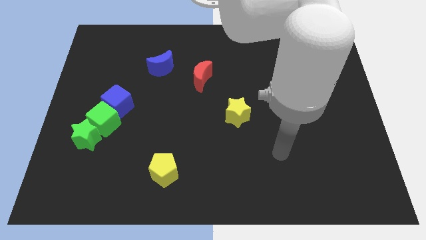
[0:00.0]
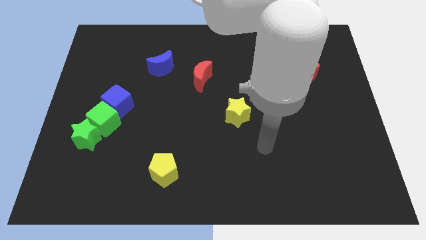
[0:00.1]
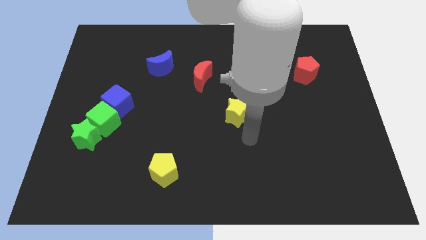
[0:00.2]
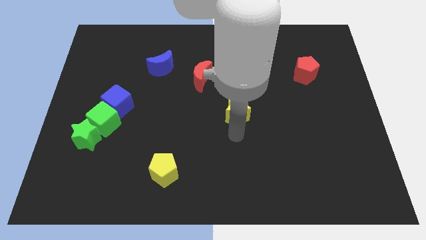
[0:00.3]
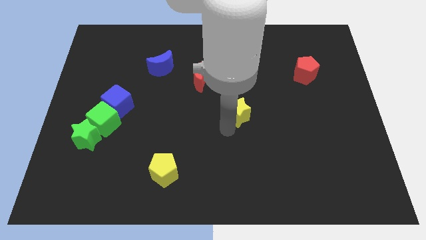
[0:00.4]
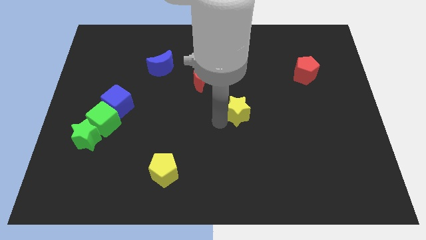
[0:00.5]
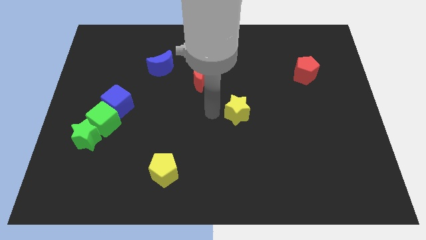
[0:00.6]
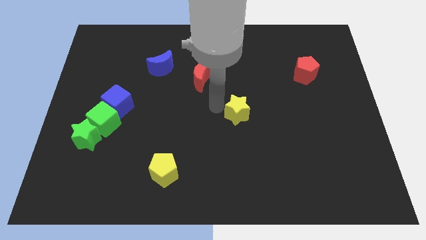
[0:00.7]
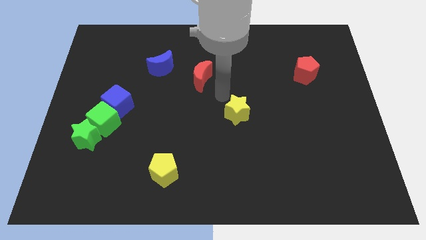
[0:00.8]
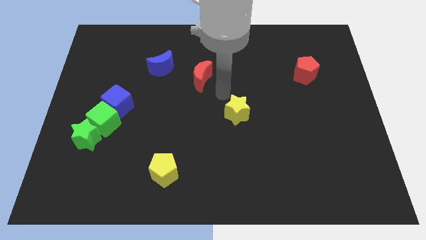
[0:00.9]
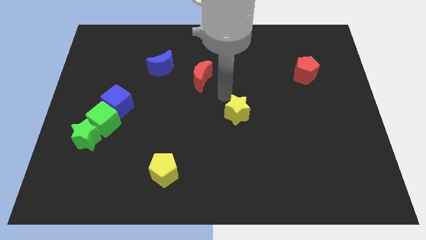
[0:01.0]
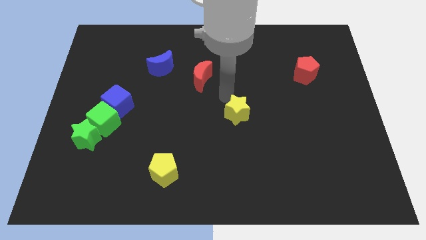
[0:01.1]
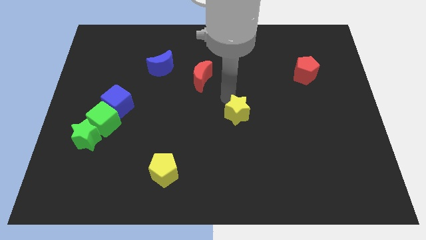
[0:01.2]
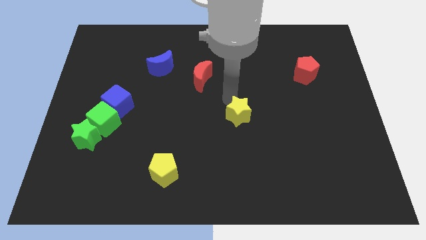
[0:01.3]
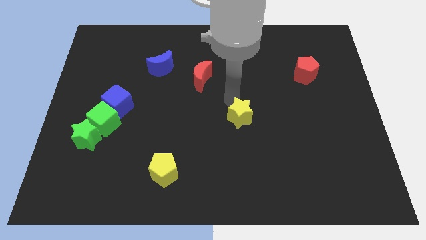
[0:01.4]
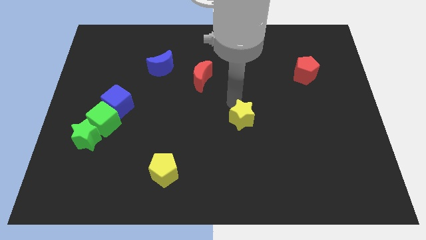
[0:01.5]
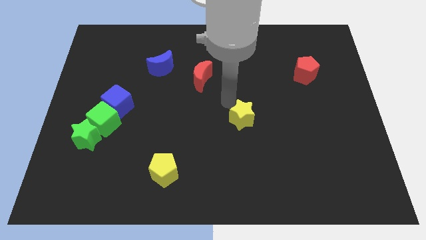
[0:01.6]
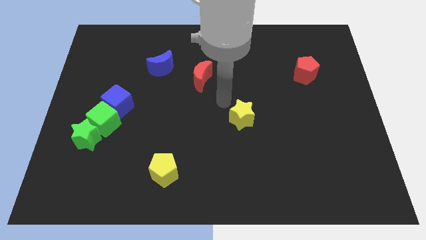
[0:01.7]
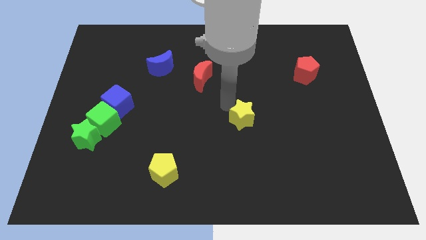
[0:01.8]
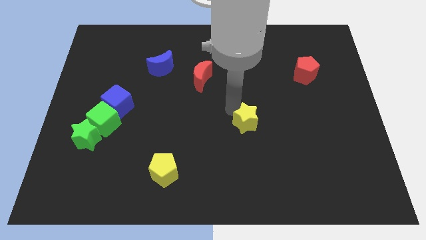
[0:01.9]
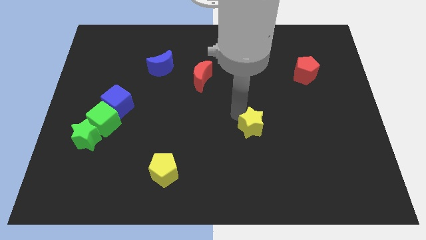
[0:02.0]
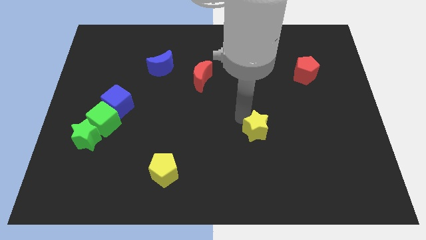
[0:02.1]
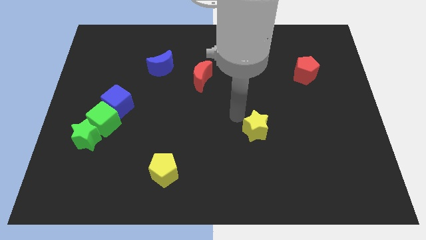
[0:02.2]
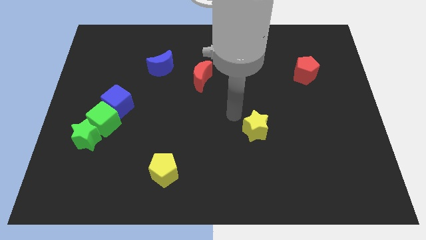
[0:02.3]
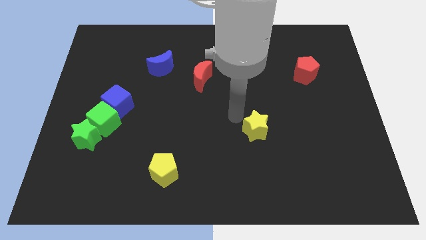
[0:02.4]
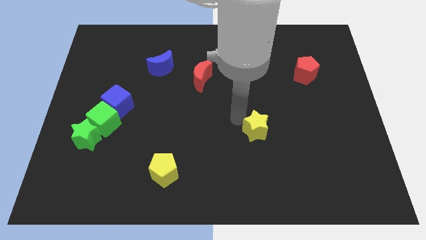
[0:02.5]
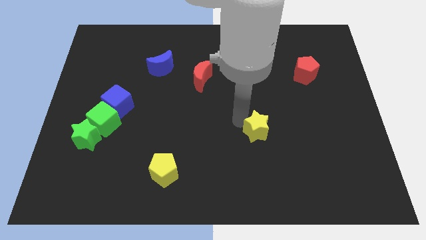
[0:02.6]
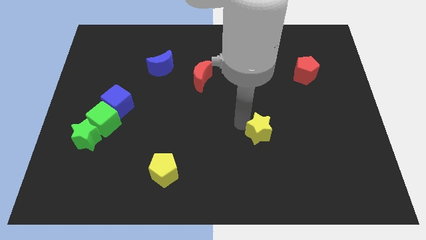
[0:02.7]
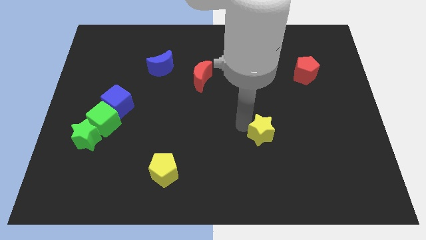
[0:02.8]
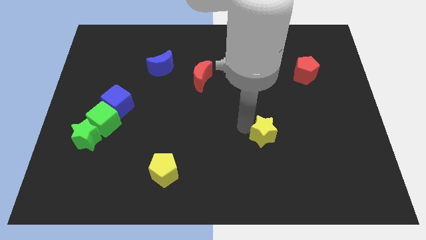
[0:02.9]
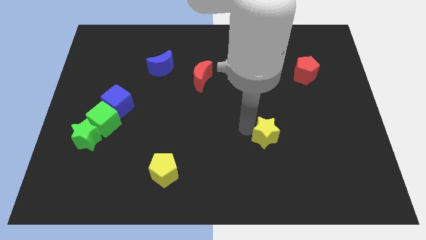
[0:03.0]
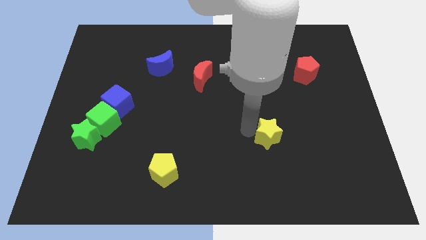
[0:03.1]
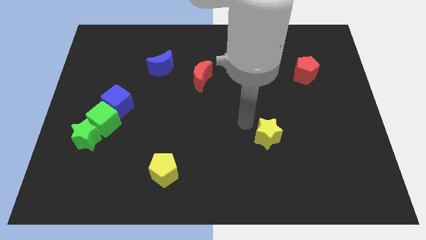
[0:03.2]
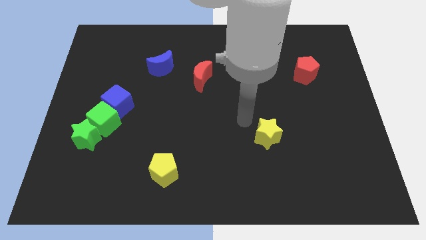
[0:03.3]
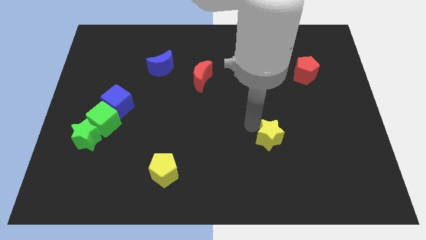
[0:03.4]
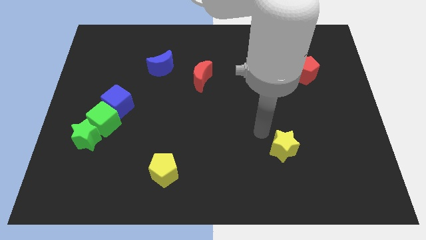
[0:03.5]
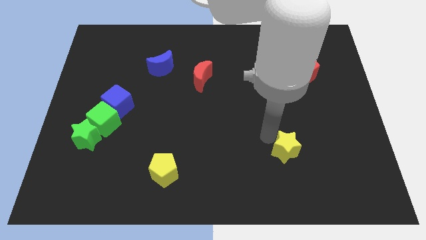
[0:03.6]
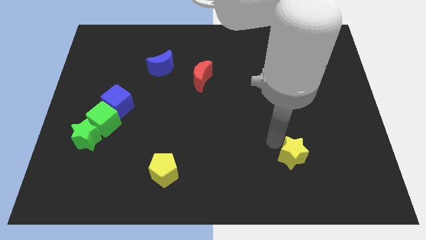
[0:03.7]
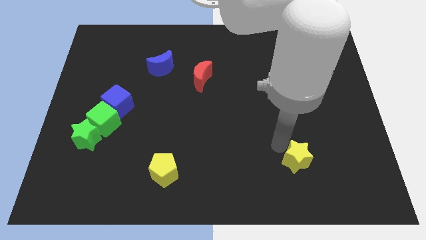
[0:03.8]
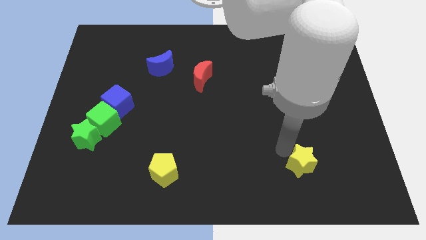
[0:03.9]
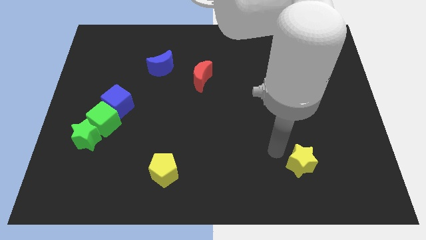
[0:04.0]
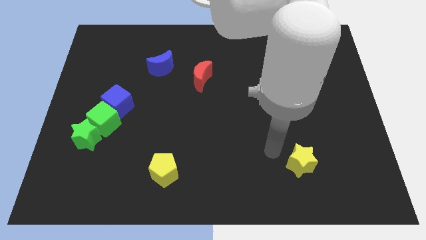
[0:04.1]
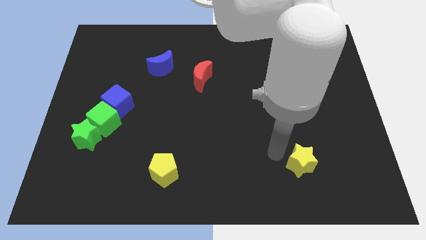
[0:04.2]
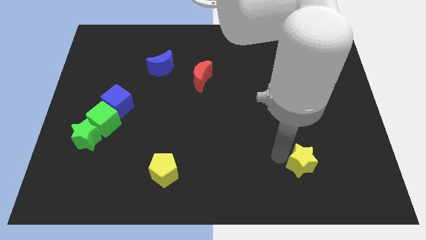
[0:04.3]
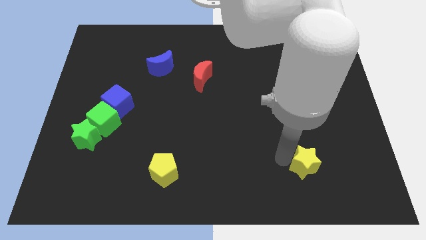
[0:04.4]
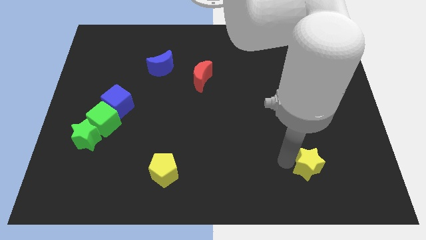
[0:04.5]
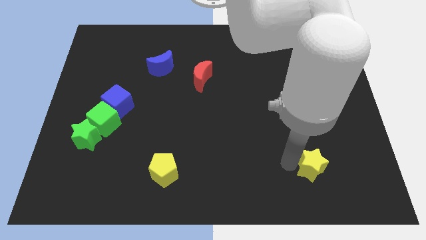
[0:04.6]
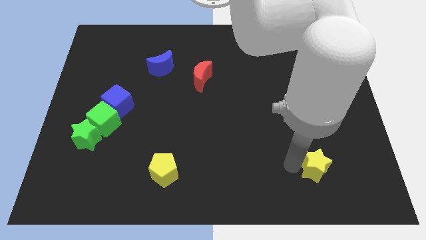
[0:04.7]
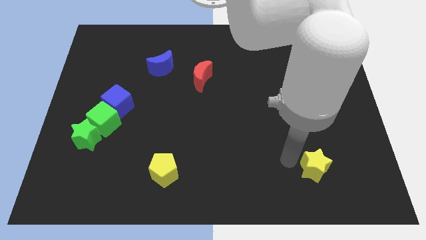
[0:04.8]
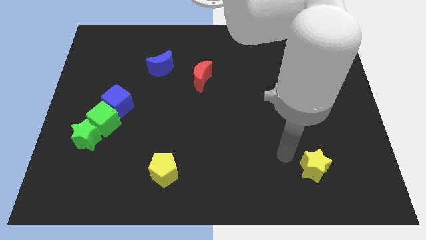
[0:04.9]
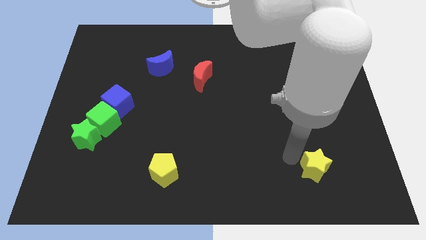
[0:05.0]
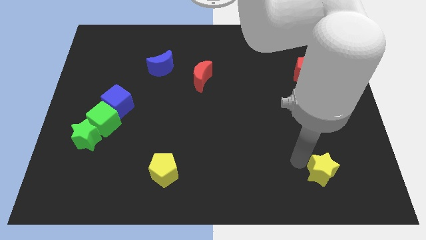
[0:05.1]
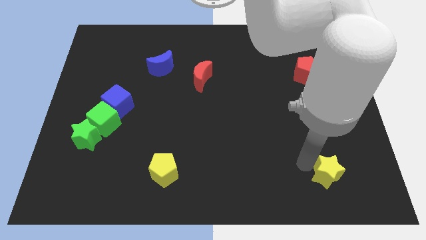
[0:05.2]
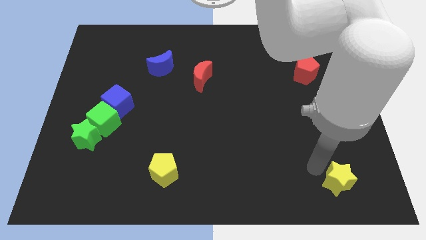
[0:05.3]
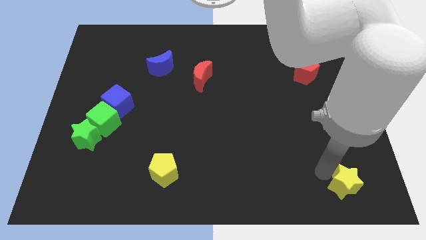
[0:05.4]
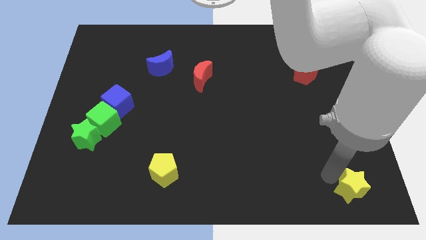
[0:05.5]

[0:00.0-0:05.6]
slide the yellow star to the lower right corner

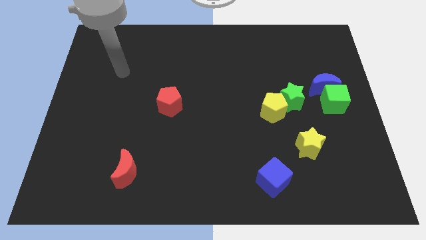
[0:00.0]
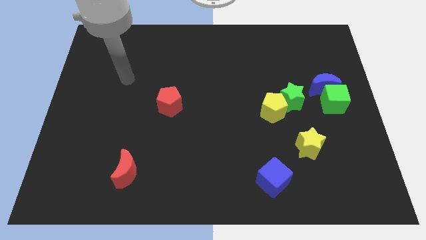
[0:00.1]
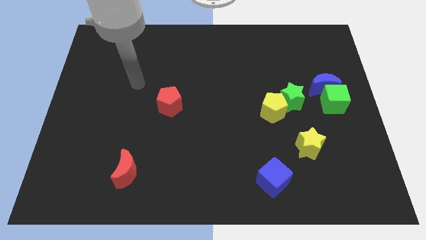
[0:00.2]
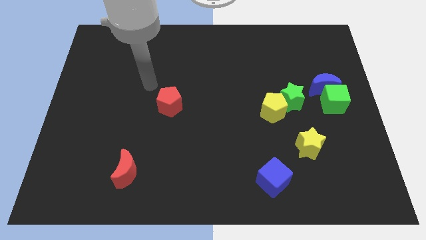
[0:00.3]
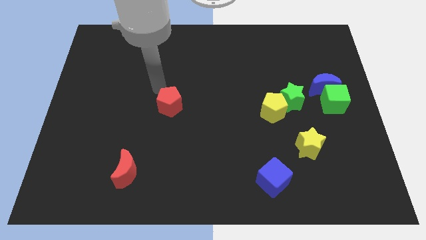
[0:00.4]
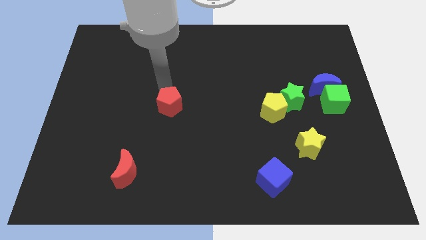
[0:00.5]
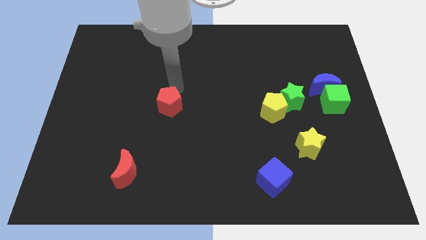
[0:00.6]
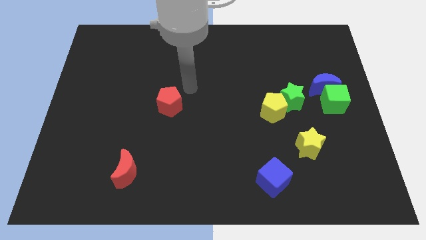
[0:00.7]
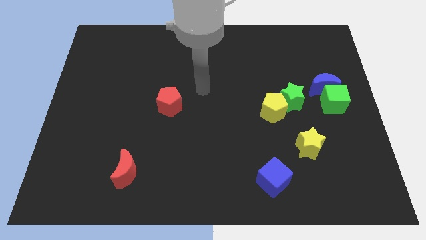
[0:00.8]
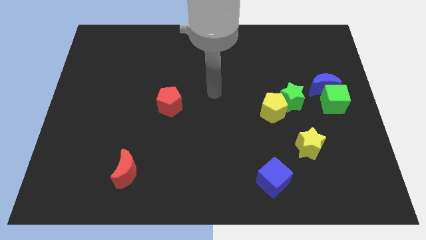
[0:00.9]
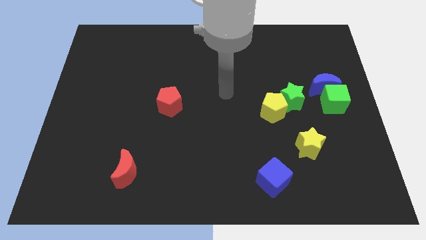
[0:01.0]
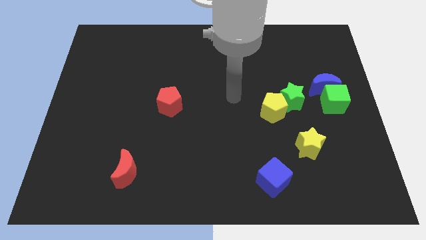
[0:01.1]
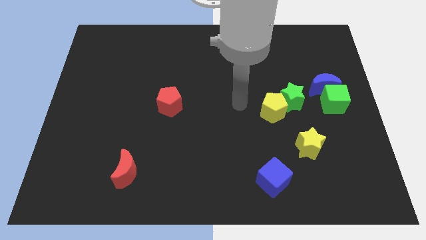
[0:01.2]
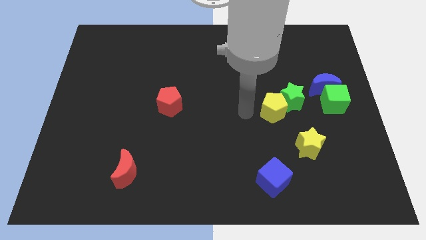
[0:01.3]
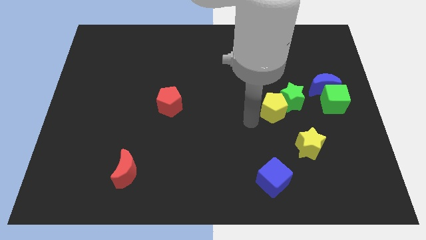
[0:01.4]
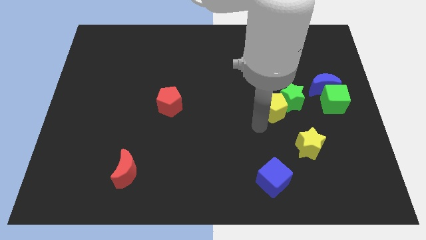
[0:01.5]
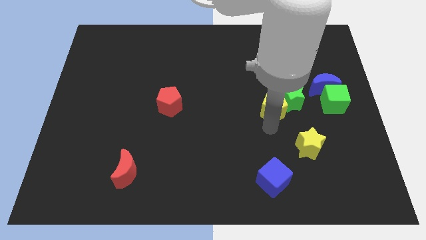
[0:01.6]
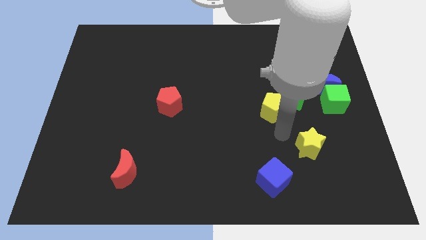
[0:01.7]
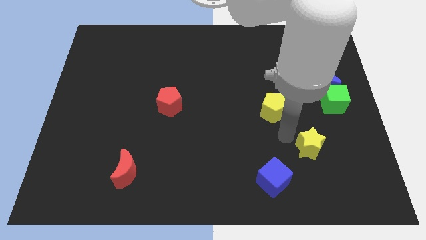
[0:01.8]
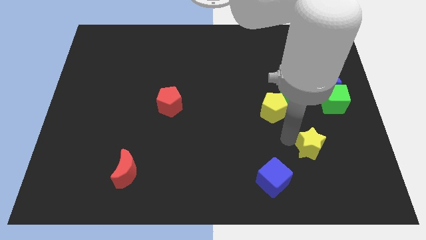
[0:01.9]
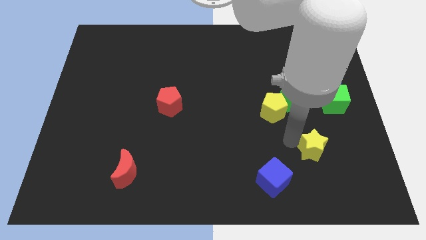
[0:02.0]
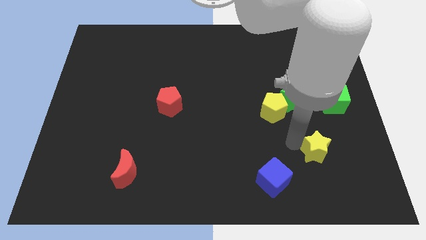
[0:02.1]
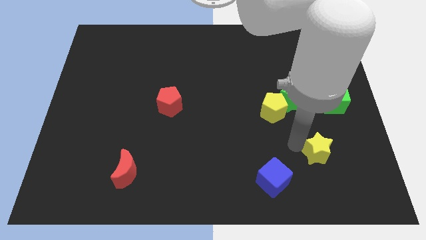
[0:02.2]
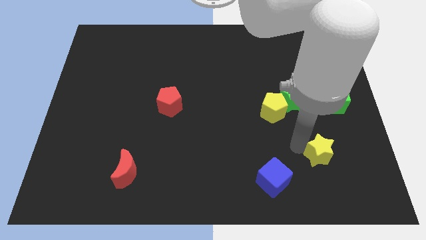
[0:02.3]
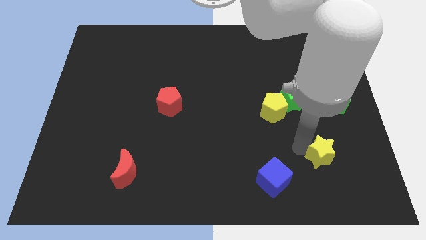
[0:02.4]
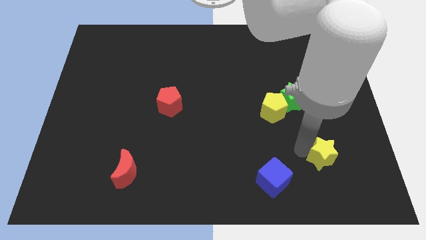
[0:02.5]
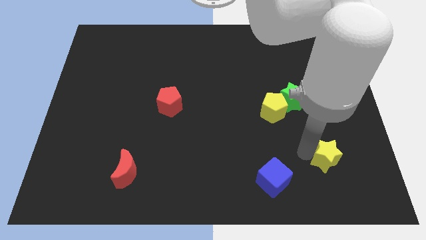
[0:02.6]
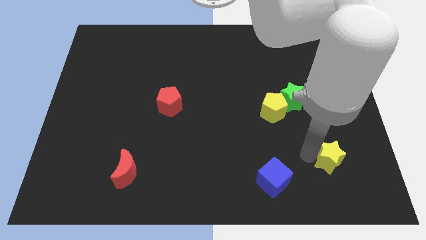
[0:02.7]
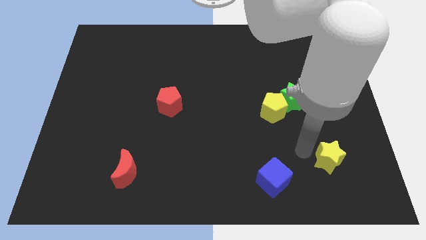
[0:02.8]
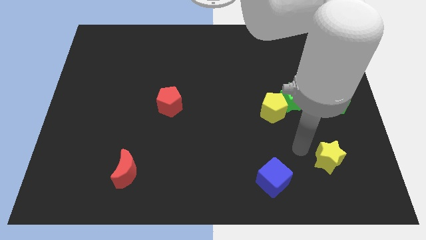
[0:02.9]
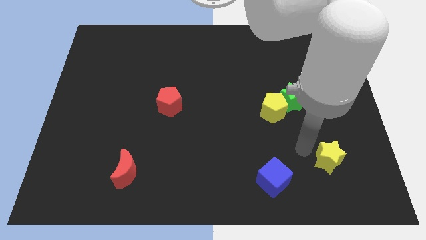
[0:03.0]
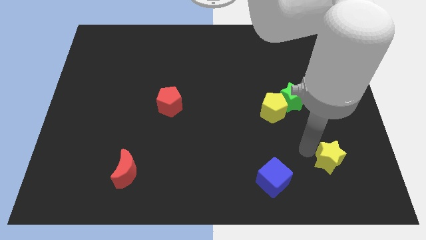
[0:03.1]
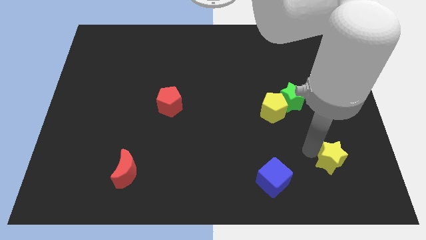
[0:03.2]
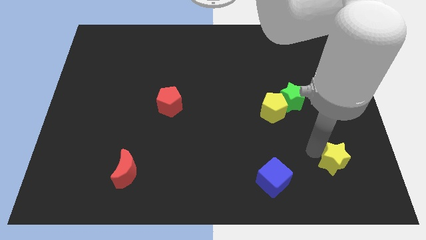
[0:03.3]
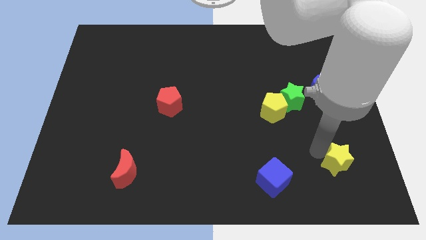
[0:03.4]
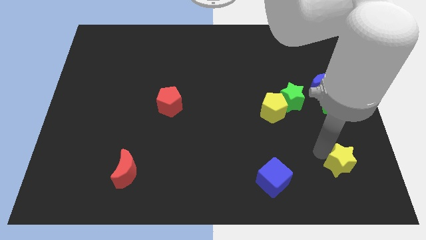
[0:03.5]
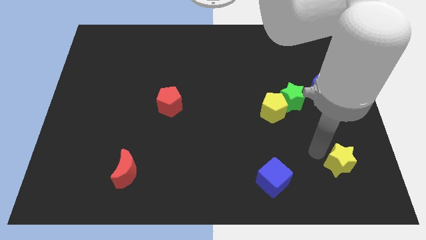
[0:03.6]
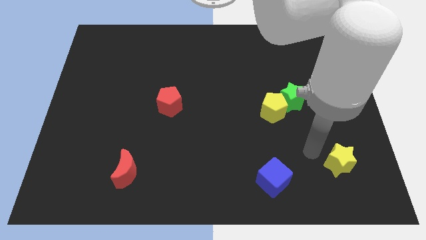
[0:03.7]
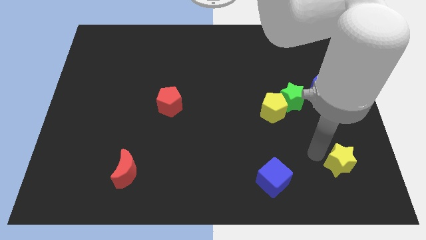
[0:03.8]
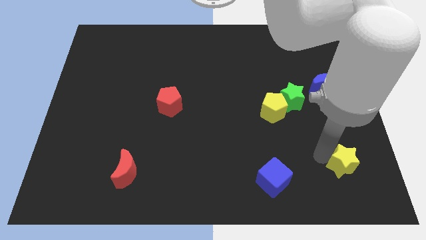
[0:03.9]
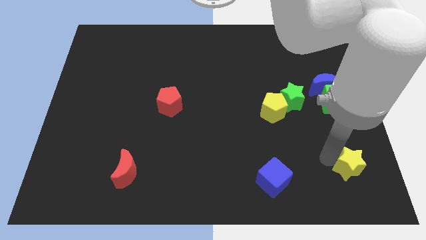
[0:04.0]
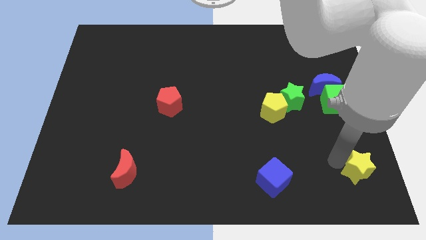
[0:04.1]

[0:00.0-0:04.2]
put the yellow star to the bottom right of the board
